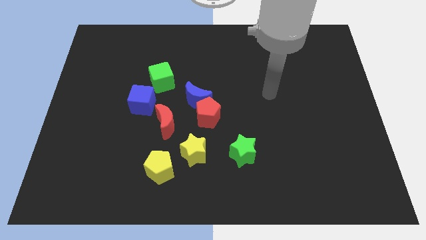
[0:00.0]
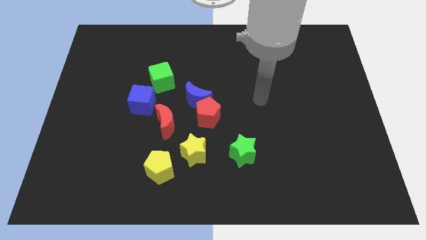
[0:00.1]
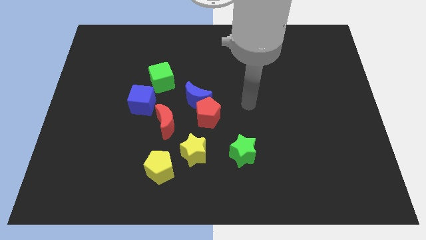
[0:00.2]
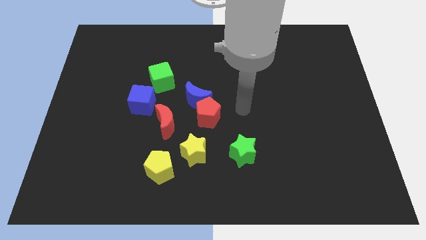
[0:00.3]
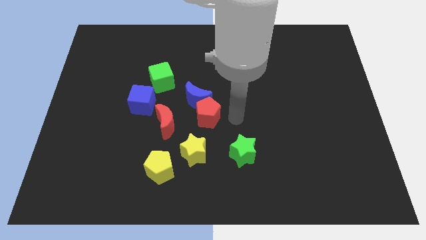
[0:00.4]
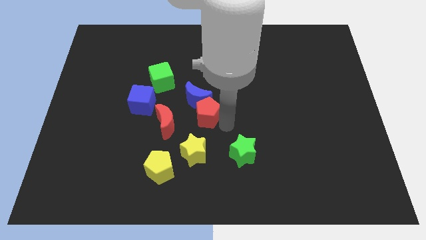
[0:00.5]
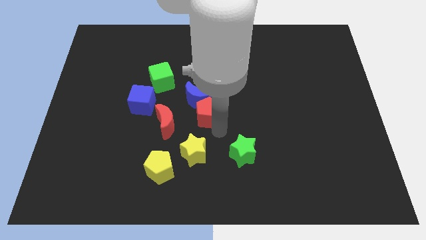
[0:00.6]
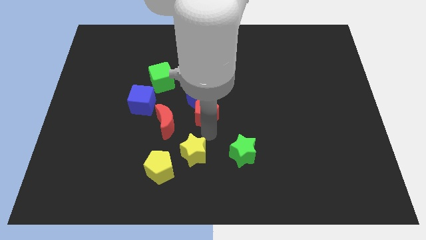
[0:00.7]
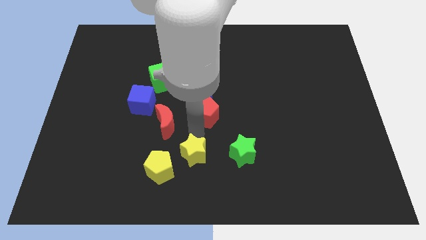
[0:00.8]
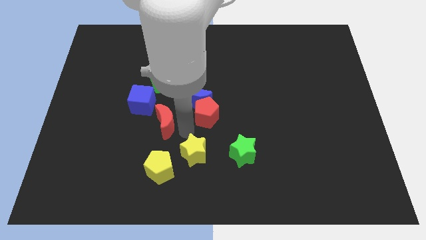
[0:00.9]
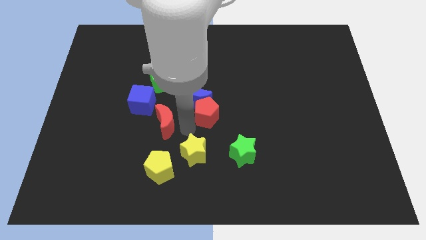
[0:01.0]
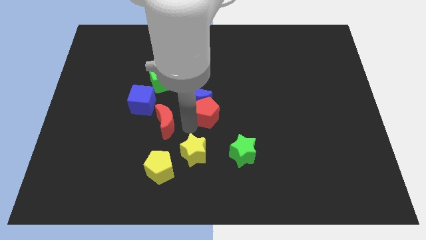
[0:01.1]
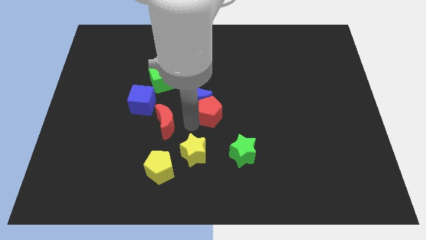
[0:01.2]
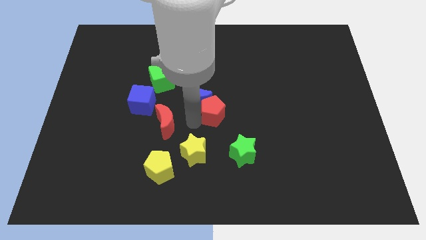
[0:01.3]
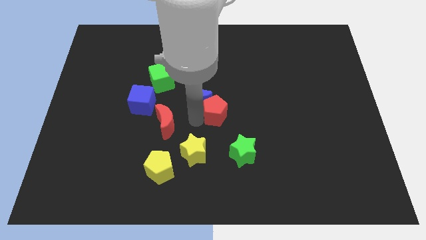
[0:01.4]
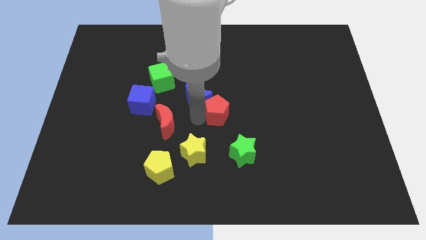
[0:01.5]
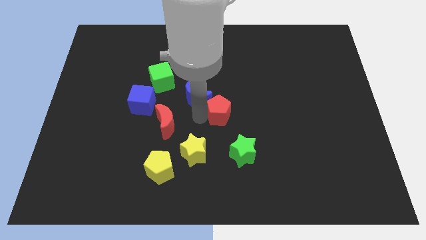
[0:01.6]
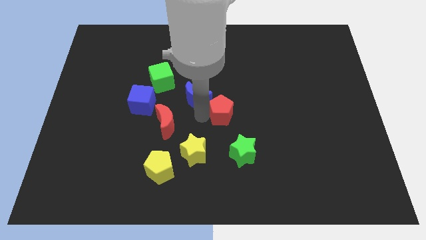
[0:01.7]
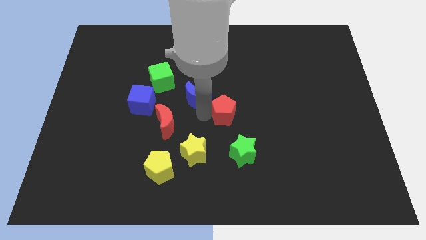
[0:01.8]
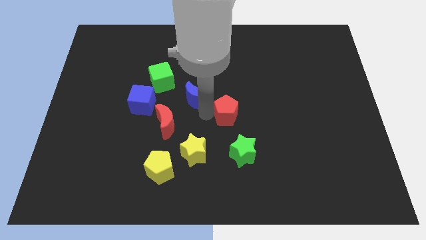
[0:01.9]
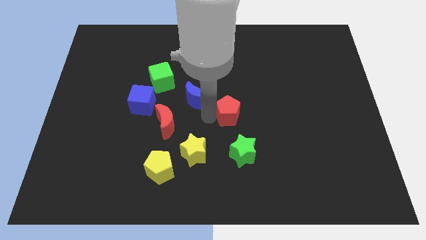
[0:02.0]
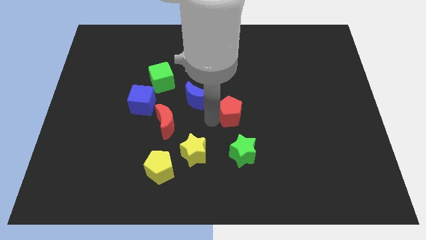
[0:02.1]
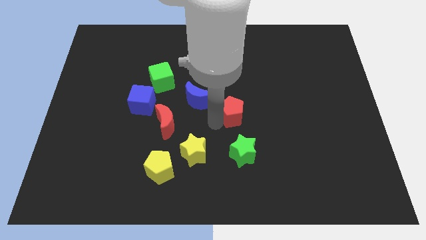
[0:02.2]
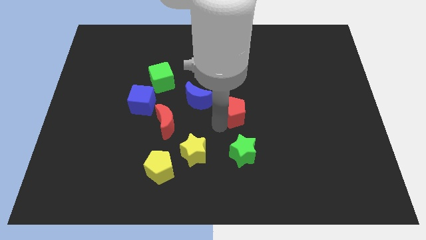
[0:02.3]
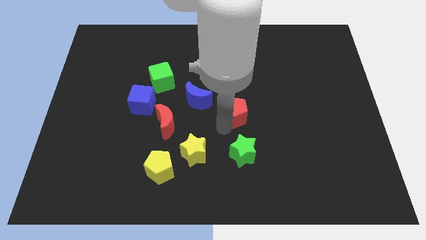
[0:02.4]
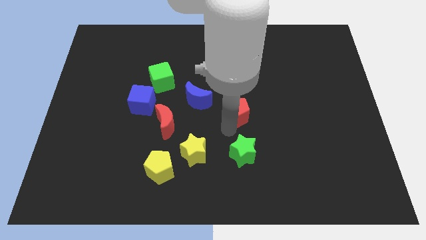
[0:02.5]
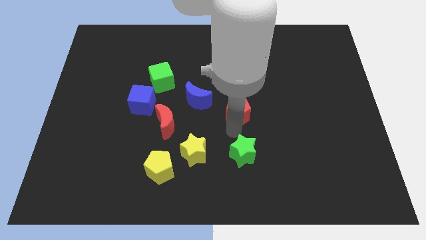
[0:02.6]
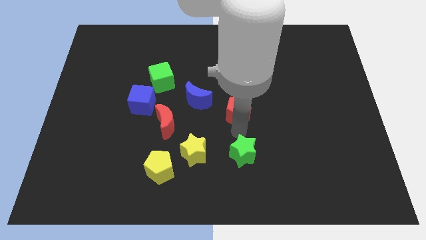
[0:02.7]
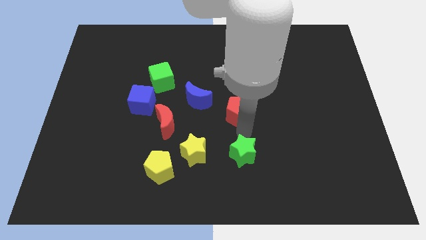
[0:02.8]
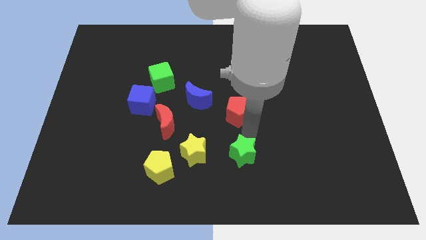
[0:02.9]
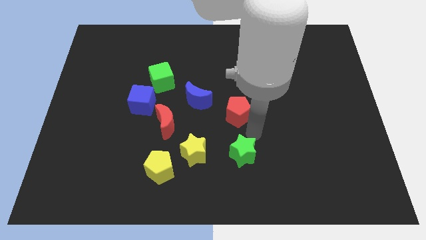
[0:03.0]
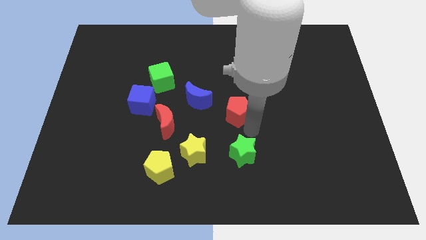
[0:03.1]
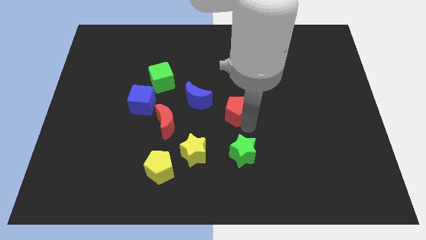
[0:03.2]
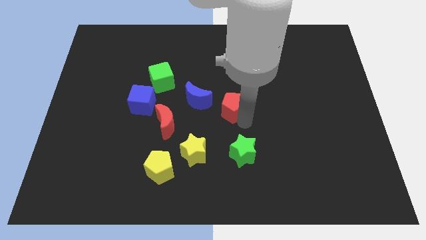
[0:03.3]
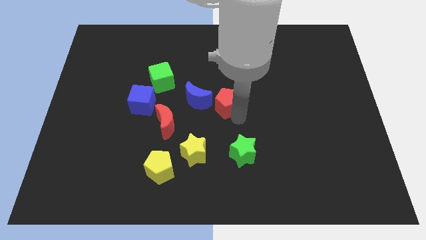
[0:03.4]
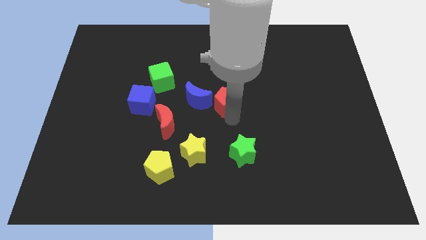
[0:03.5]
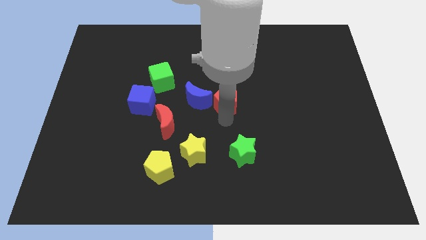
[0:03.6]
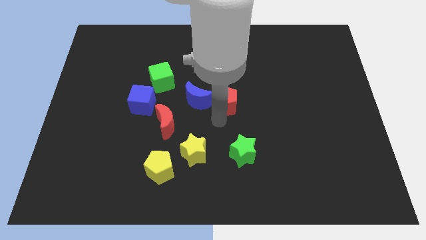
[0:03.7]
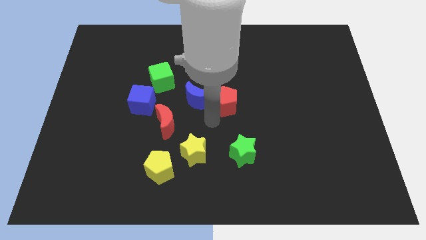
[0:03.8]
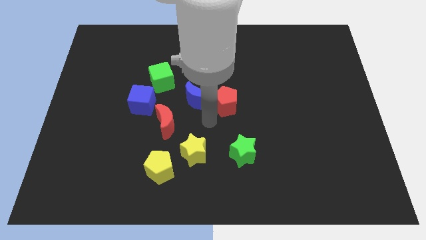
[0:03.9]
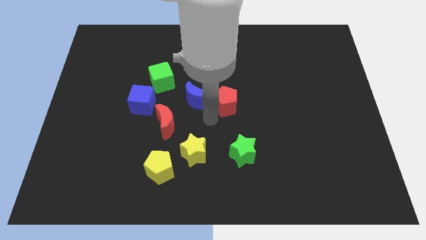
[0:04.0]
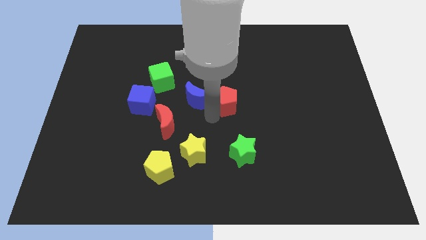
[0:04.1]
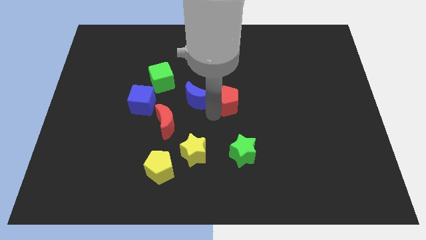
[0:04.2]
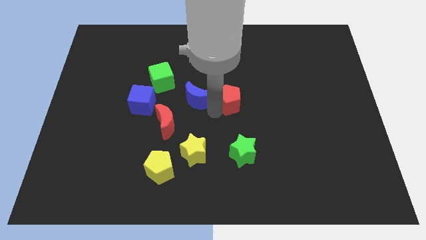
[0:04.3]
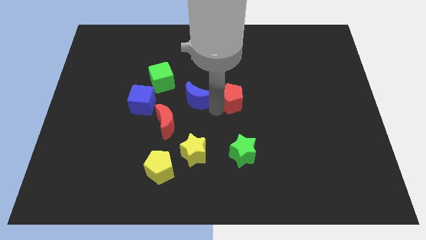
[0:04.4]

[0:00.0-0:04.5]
slide the red pentagon upwards and right diagonally slightly

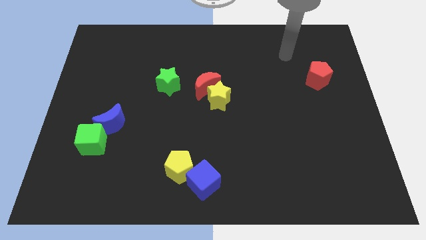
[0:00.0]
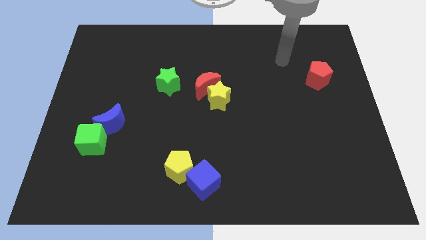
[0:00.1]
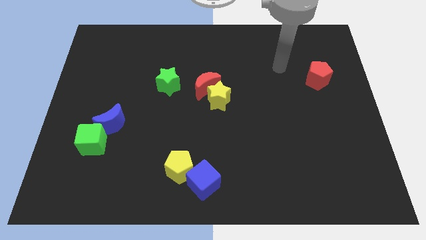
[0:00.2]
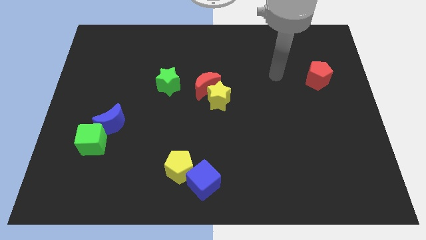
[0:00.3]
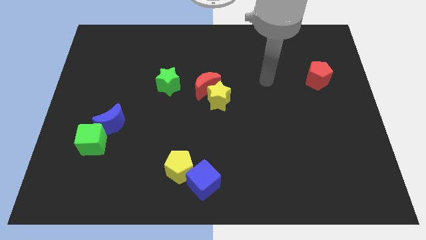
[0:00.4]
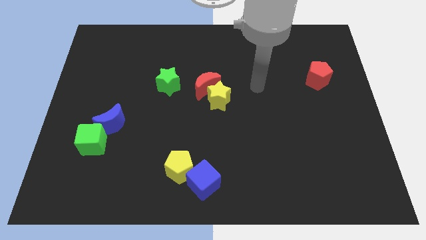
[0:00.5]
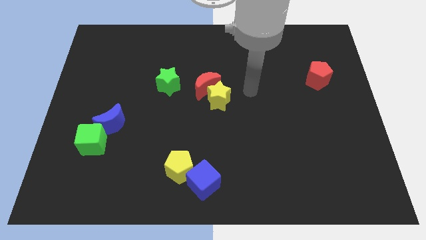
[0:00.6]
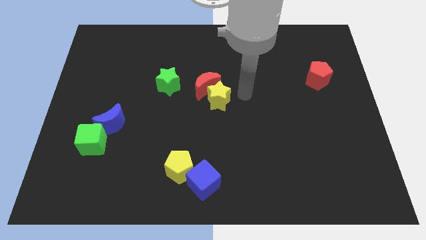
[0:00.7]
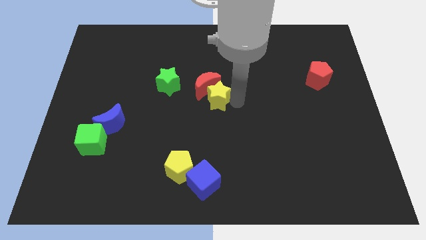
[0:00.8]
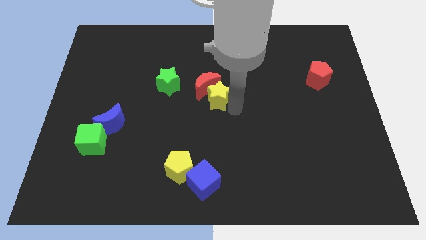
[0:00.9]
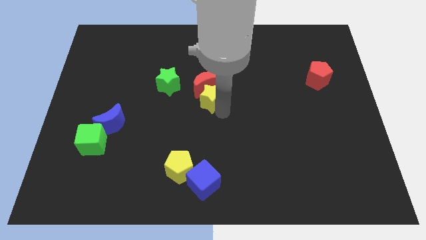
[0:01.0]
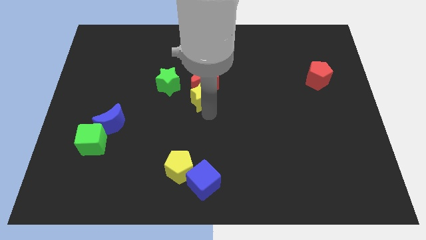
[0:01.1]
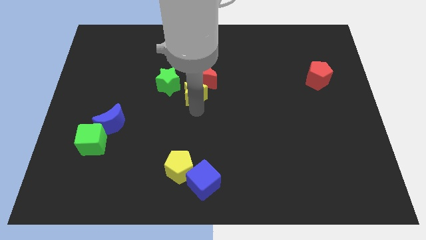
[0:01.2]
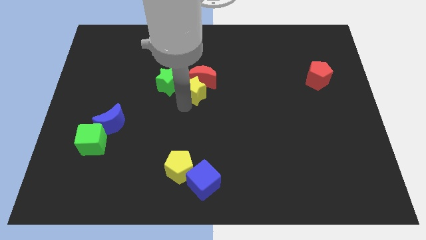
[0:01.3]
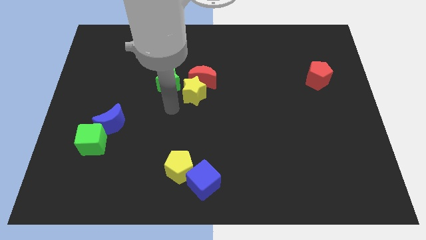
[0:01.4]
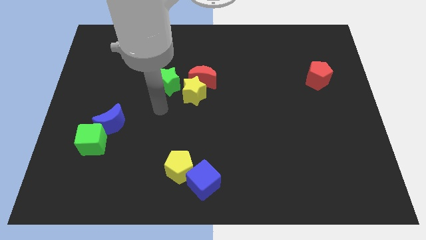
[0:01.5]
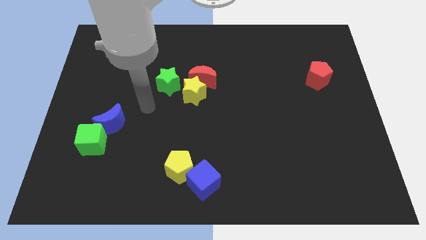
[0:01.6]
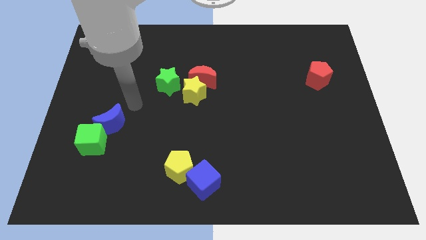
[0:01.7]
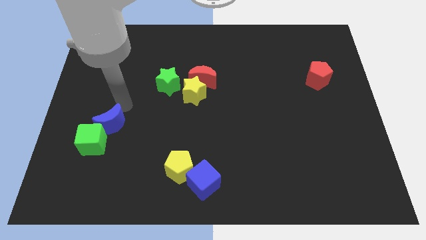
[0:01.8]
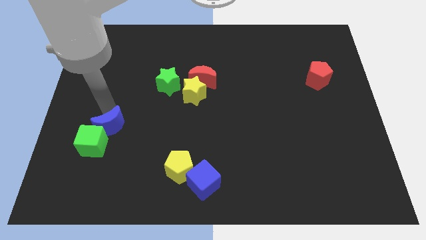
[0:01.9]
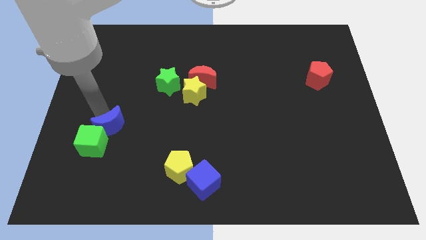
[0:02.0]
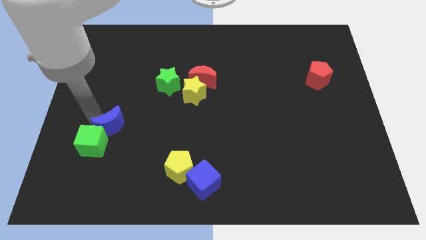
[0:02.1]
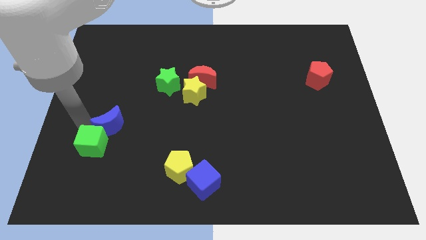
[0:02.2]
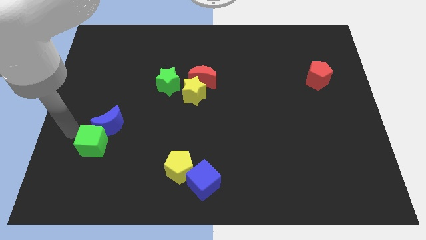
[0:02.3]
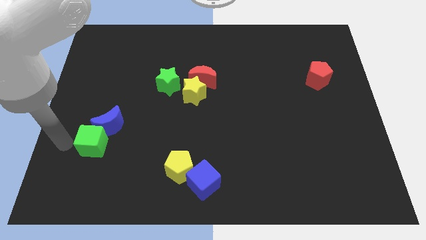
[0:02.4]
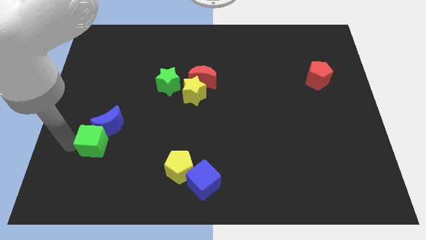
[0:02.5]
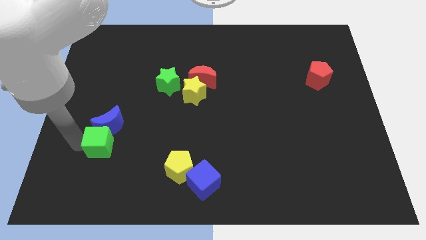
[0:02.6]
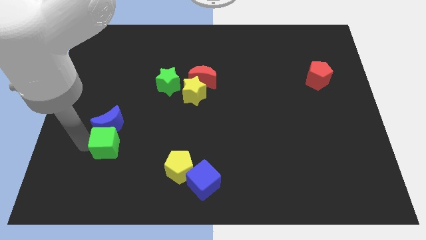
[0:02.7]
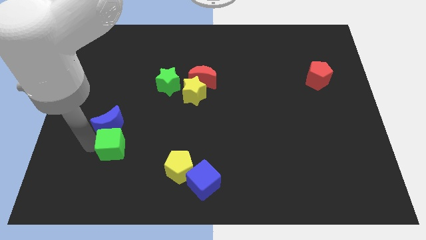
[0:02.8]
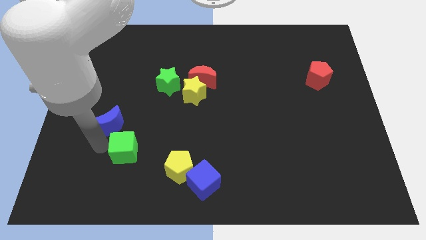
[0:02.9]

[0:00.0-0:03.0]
slide the green cube to the right a bit

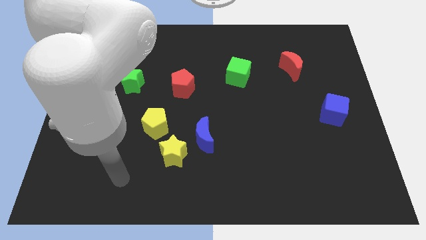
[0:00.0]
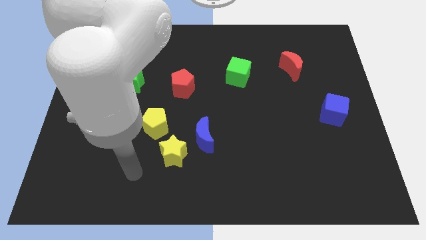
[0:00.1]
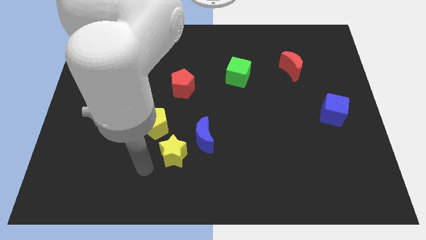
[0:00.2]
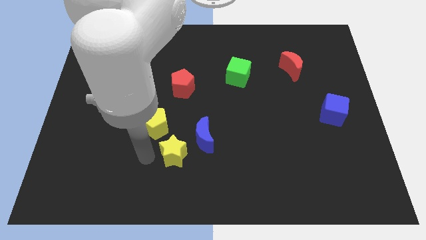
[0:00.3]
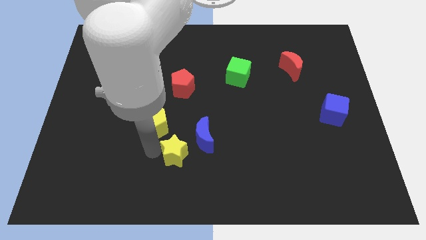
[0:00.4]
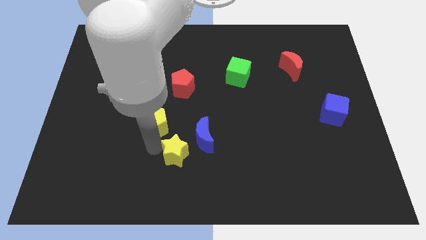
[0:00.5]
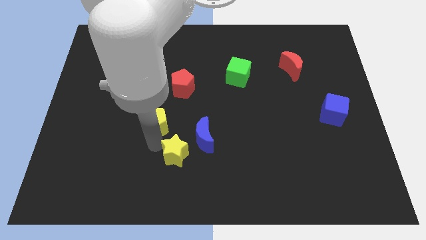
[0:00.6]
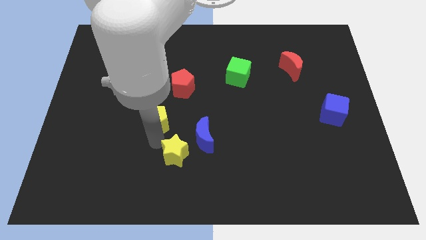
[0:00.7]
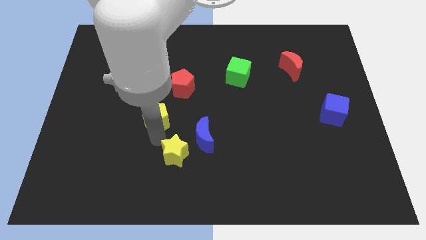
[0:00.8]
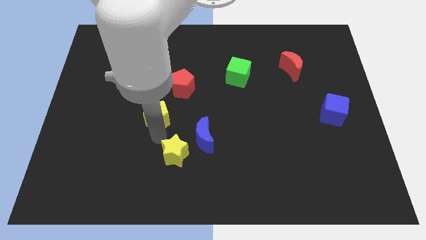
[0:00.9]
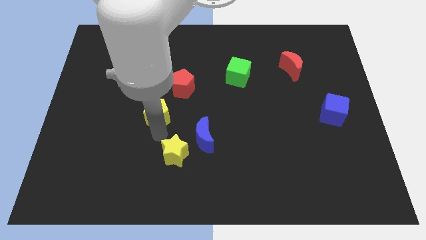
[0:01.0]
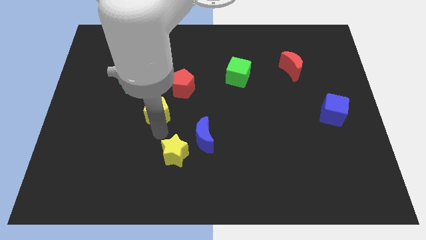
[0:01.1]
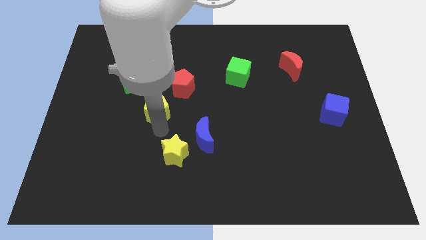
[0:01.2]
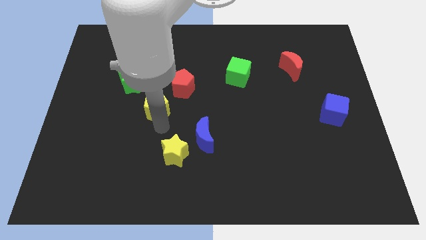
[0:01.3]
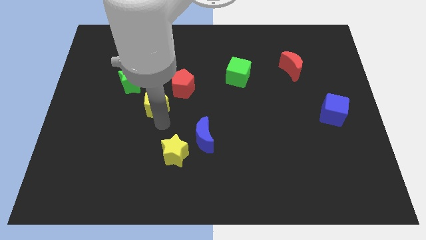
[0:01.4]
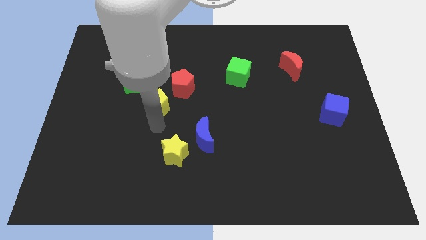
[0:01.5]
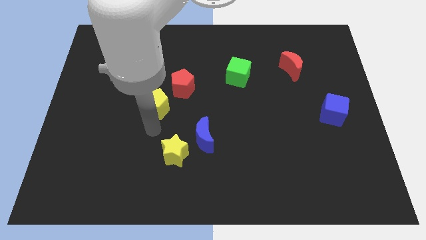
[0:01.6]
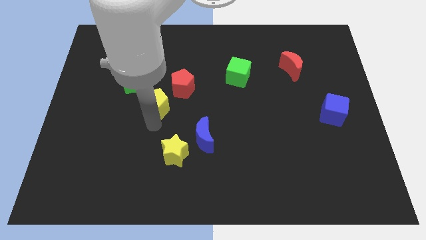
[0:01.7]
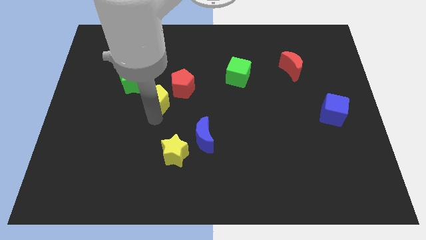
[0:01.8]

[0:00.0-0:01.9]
slightly push the yellow pentagon upwards
